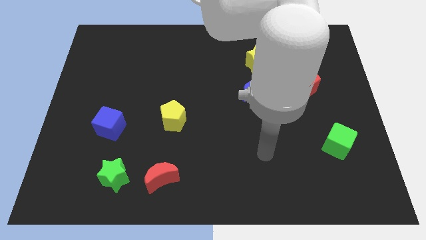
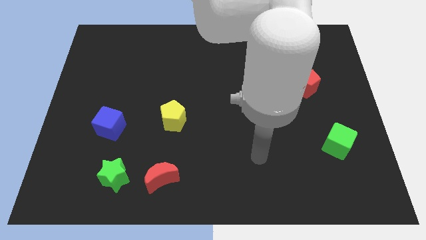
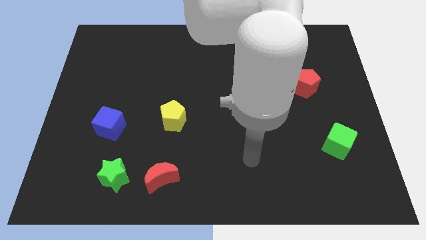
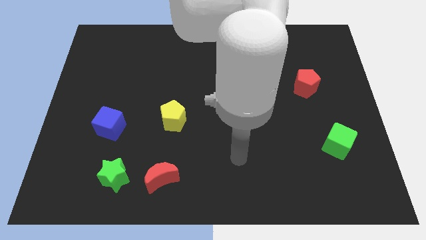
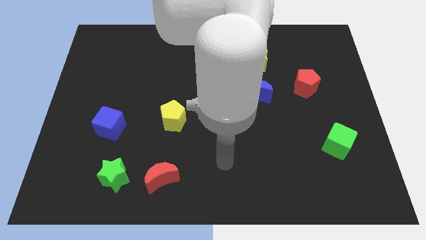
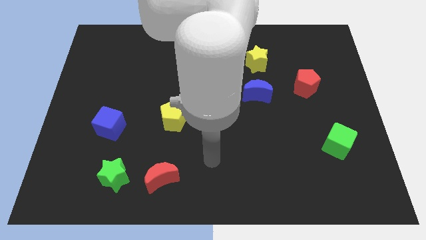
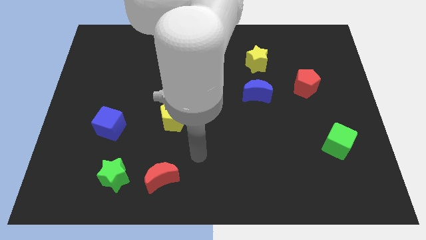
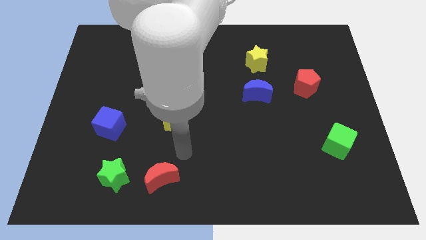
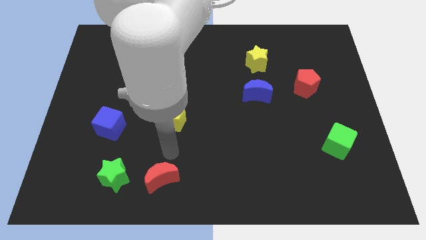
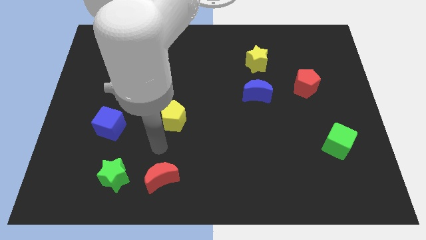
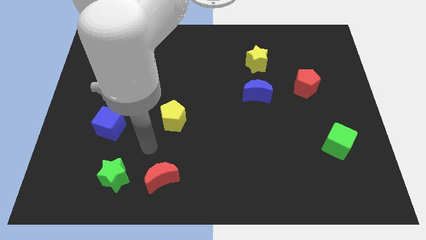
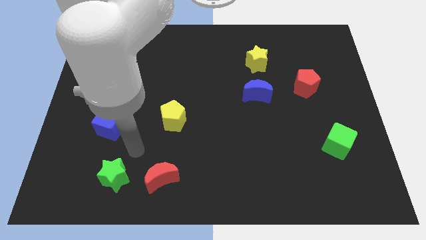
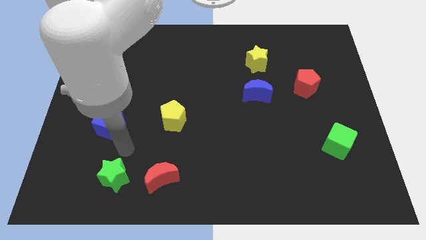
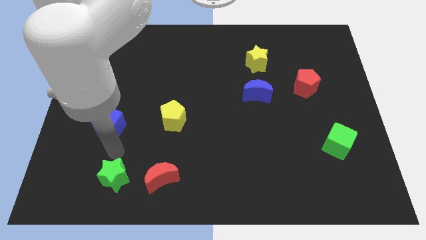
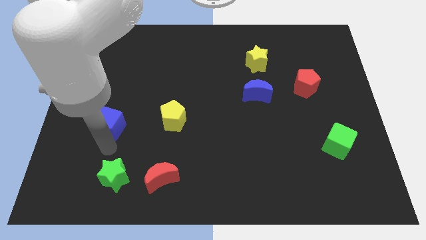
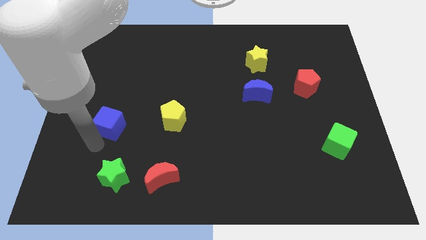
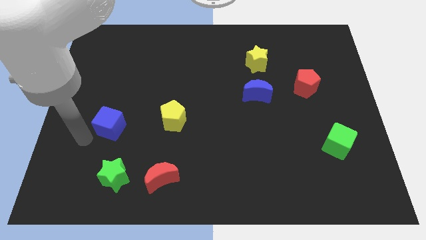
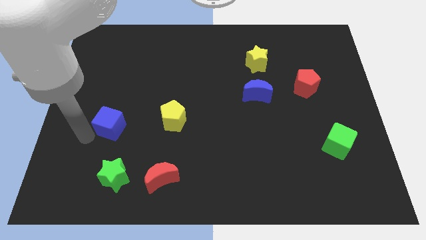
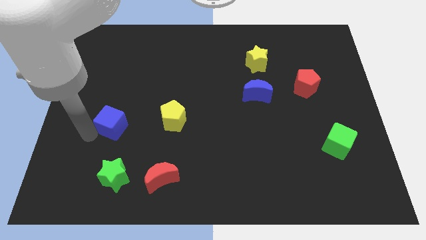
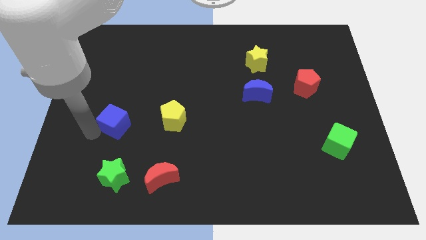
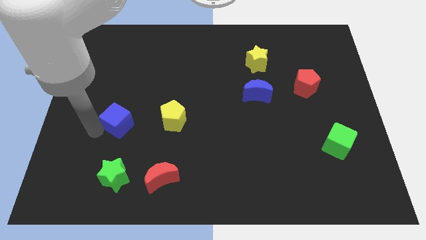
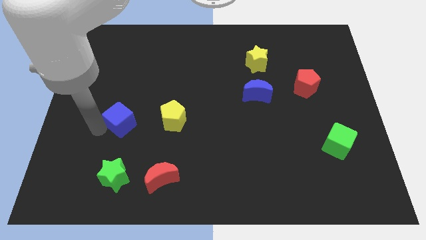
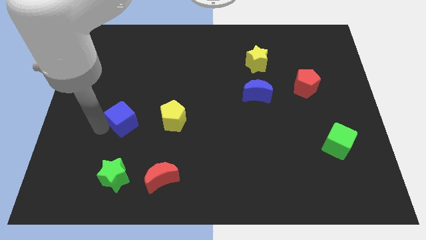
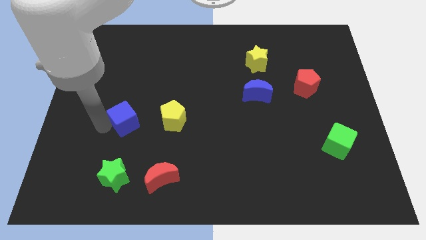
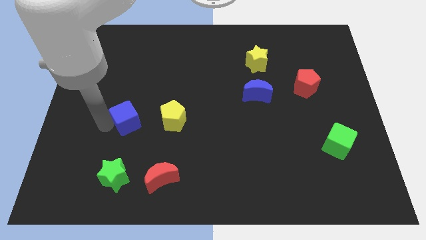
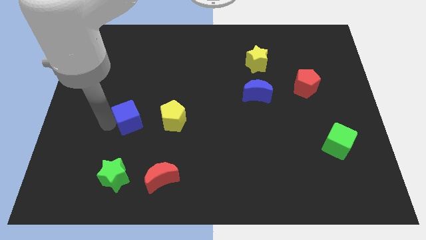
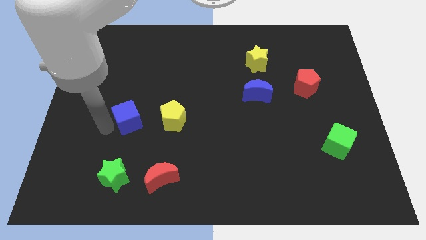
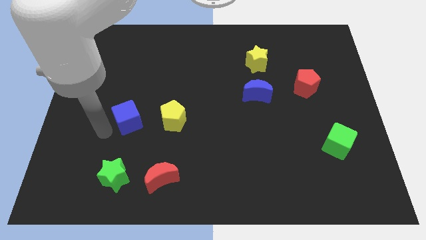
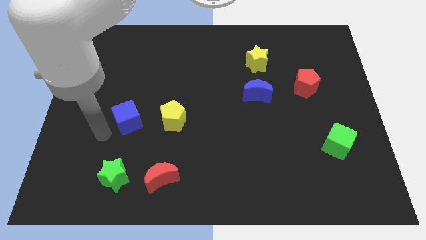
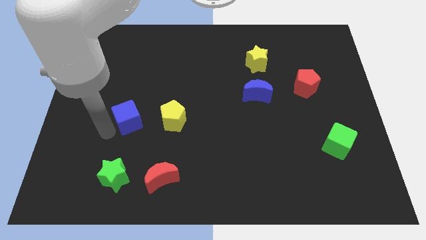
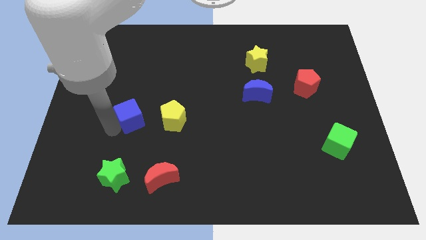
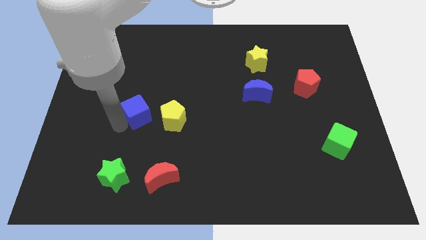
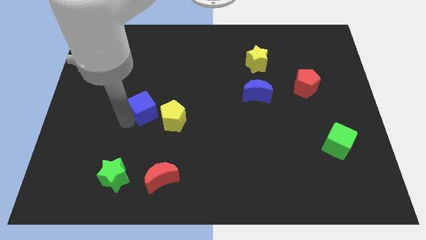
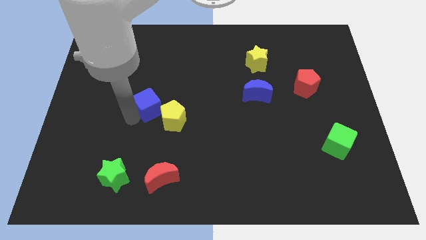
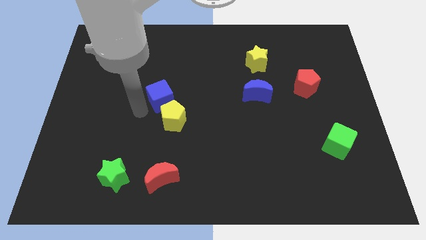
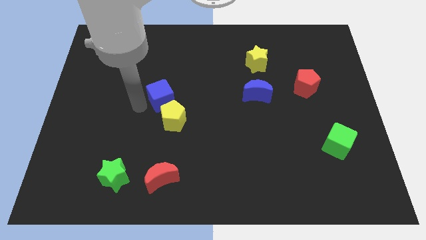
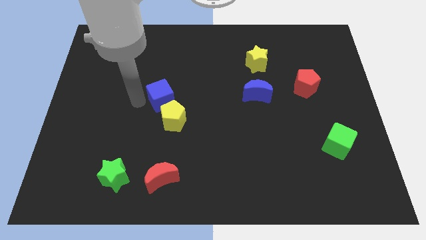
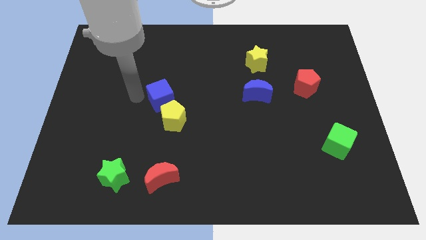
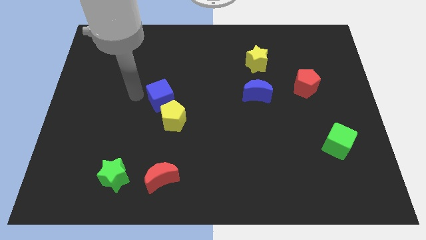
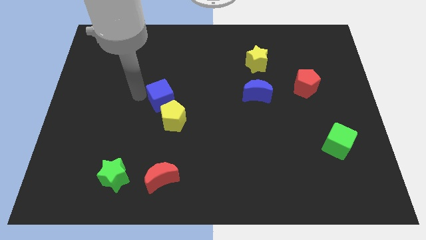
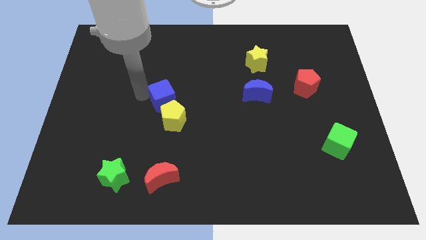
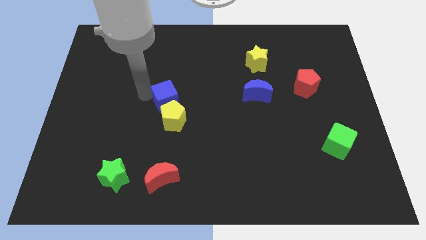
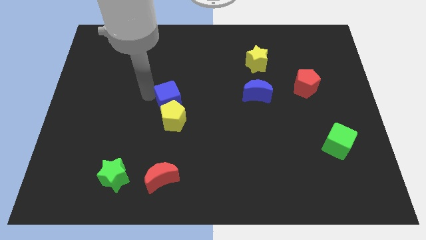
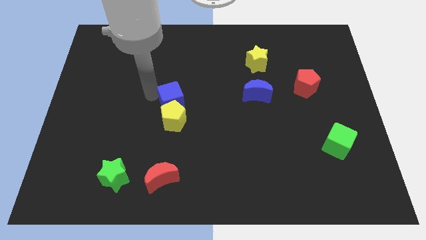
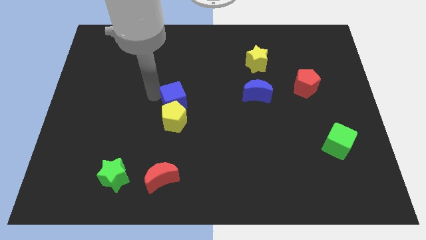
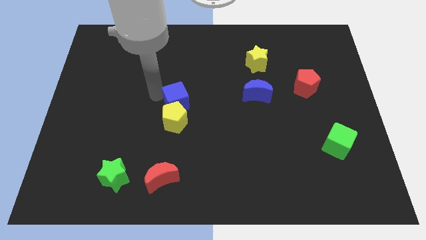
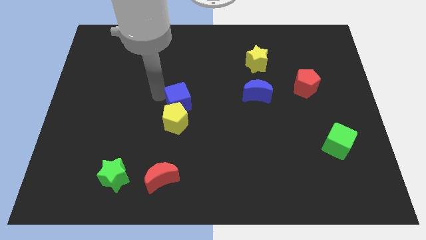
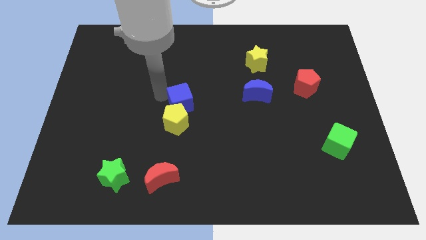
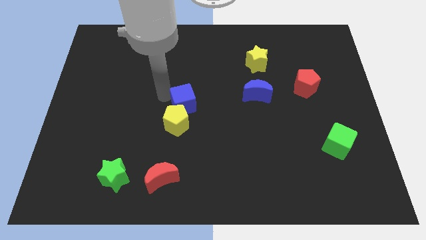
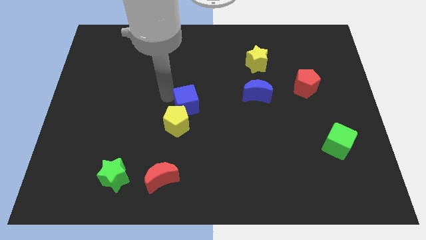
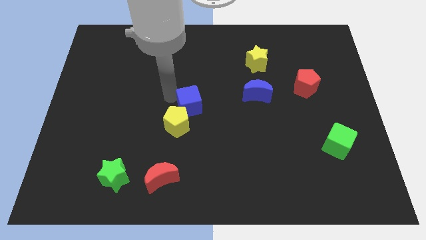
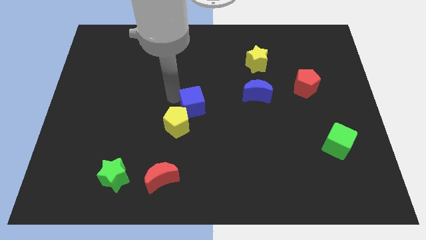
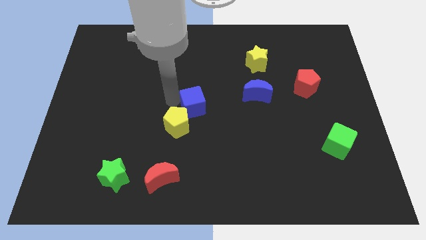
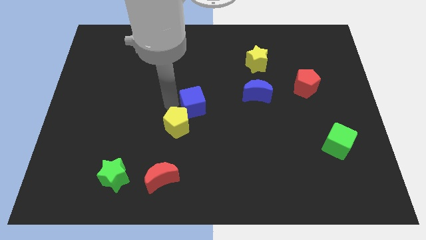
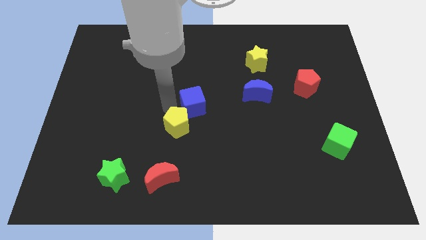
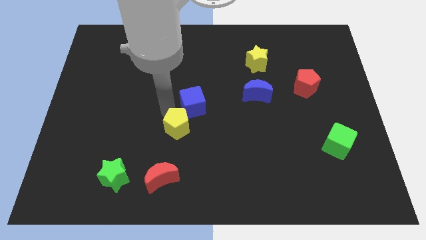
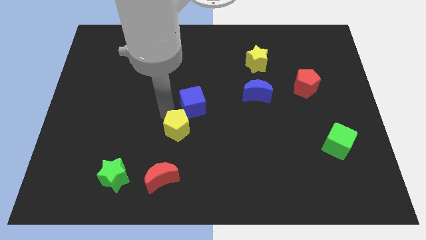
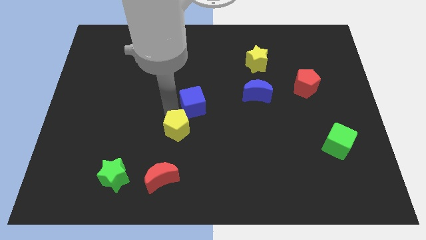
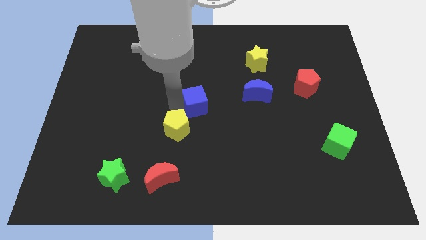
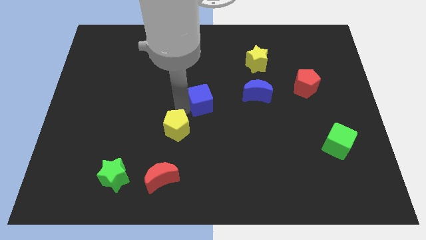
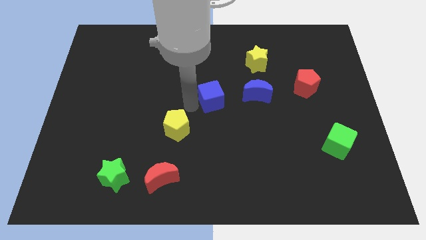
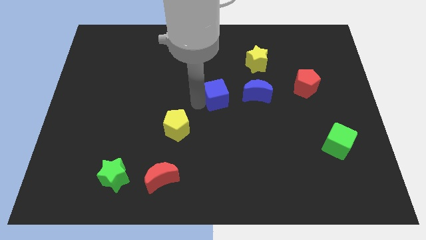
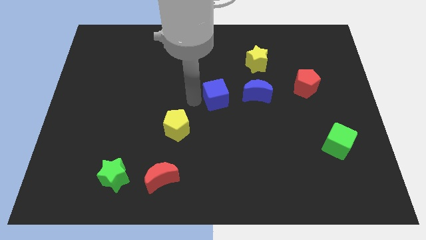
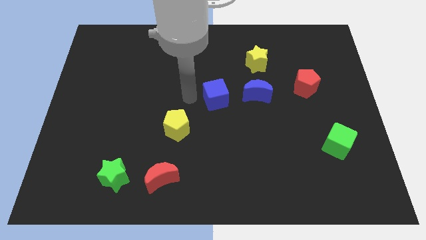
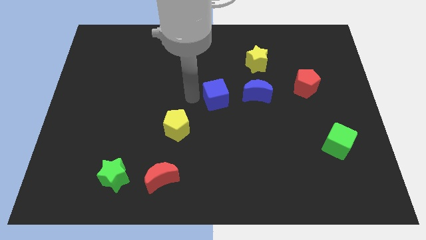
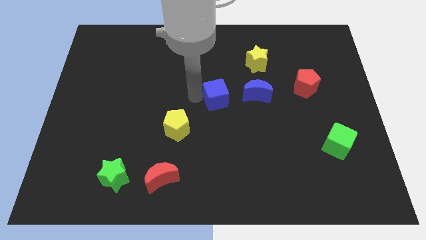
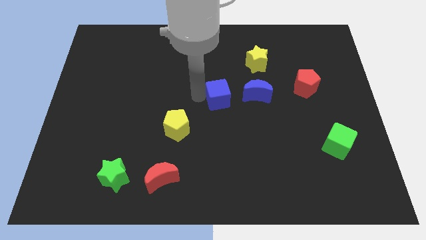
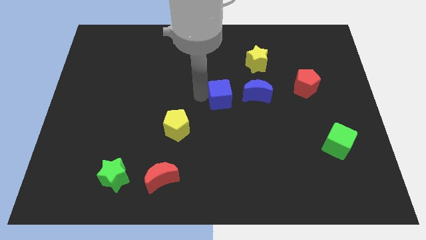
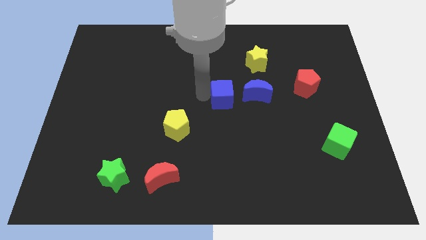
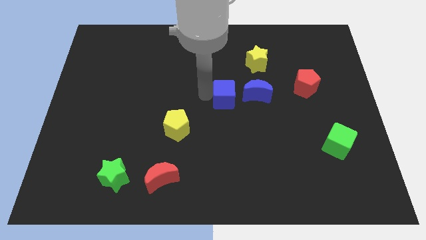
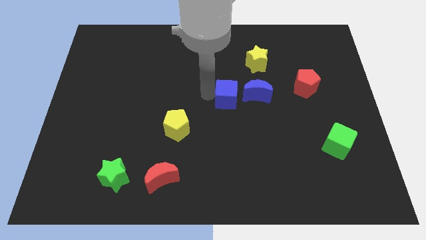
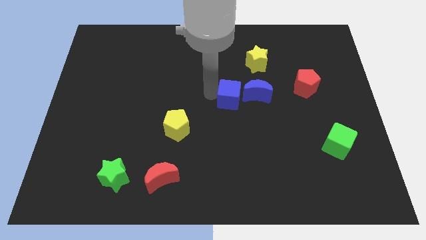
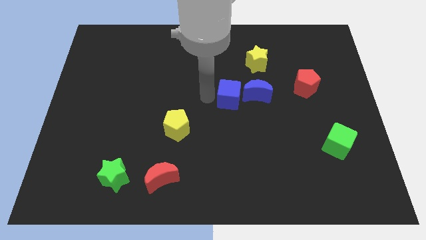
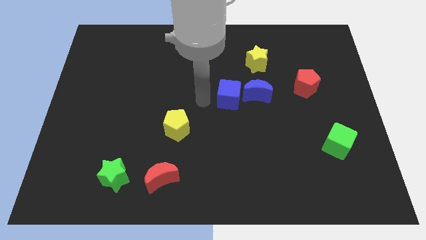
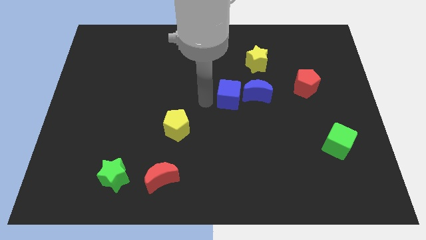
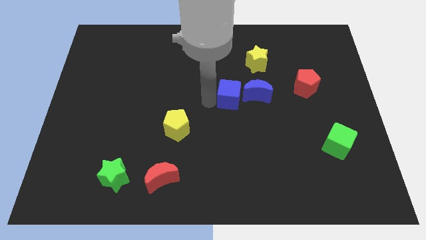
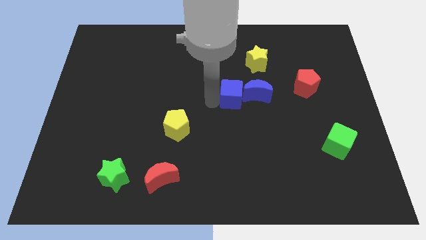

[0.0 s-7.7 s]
move the blue cube to the blue moon
